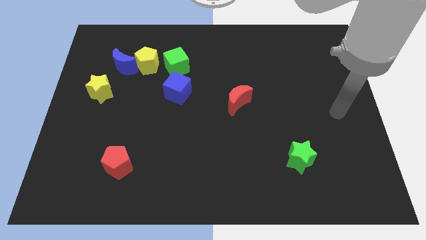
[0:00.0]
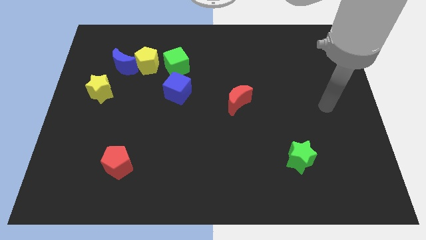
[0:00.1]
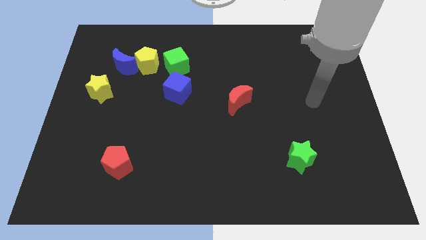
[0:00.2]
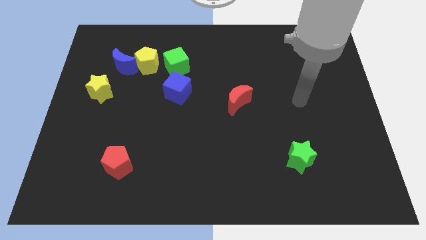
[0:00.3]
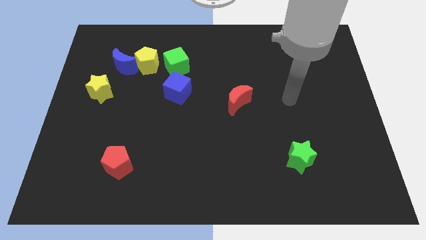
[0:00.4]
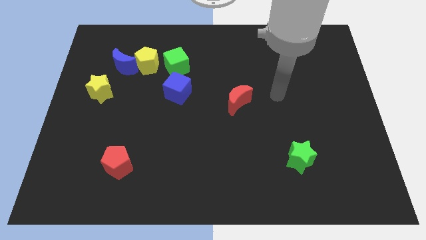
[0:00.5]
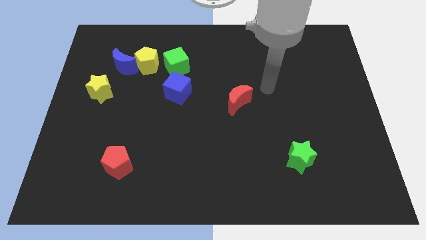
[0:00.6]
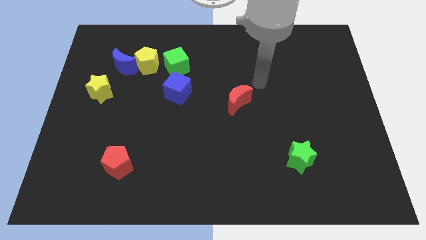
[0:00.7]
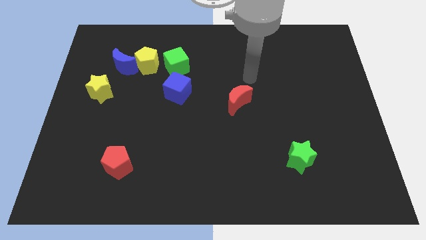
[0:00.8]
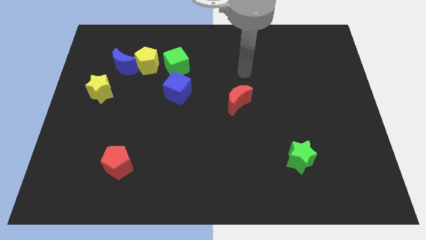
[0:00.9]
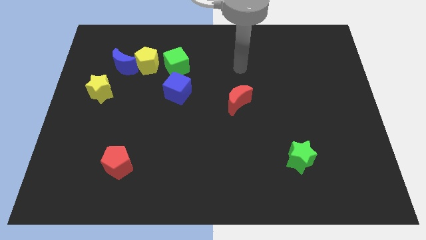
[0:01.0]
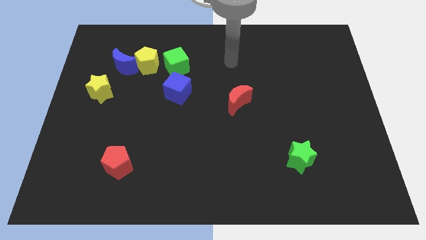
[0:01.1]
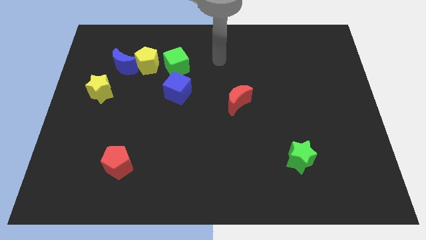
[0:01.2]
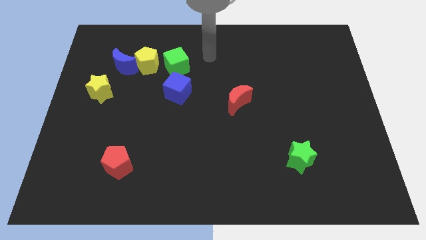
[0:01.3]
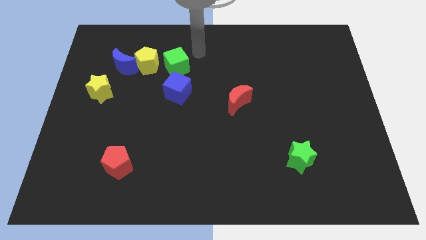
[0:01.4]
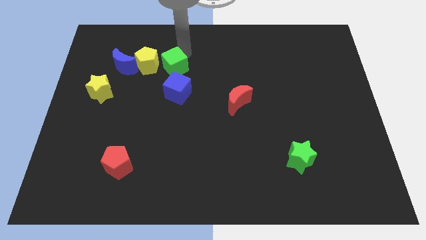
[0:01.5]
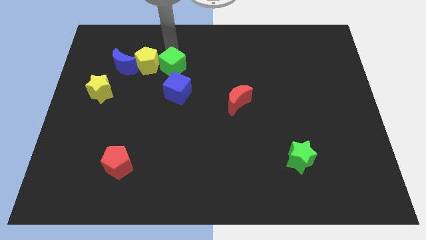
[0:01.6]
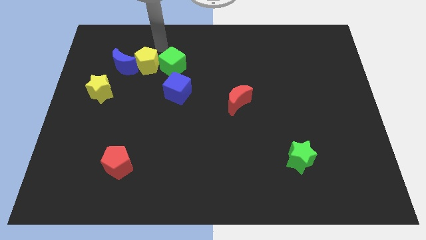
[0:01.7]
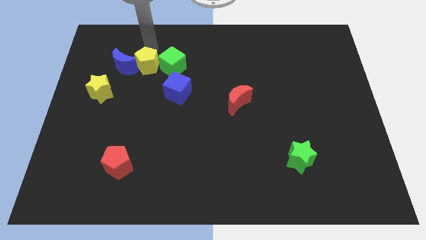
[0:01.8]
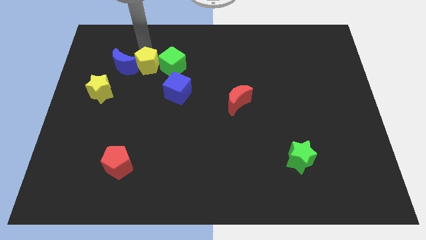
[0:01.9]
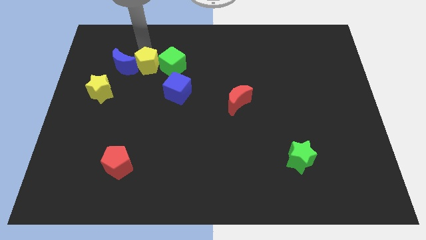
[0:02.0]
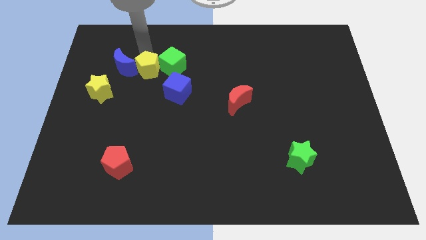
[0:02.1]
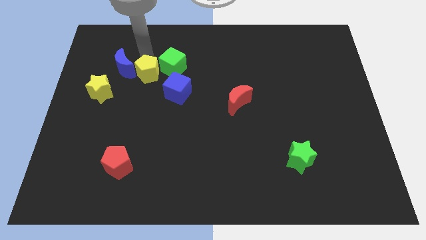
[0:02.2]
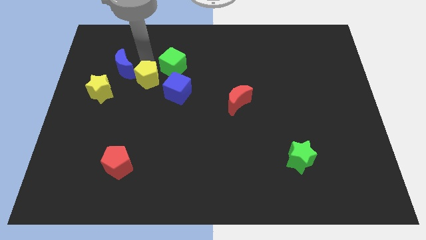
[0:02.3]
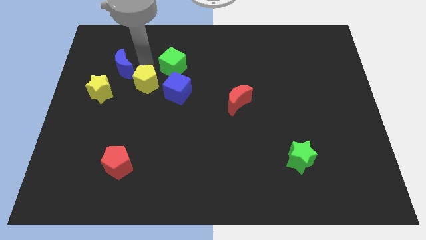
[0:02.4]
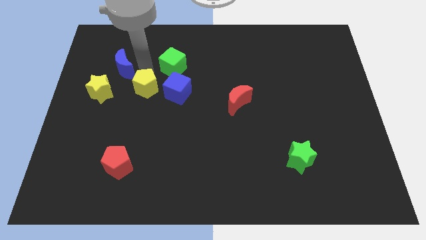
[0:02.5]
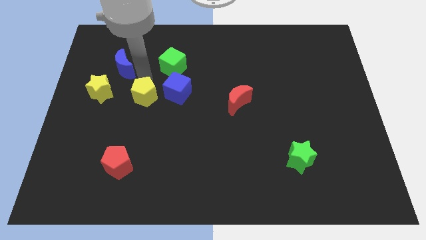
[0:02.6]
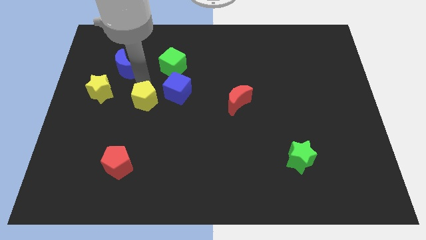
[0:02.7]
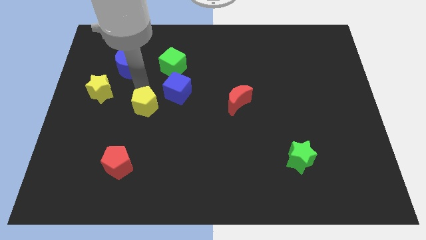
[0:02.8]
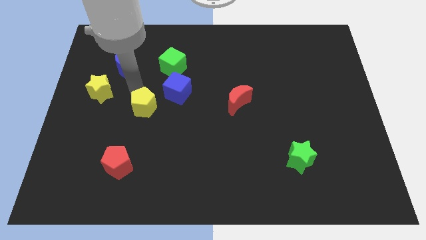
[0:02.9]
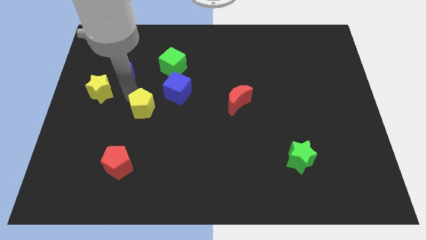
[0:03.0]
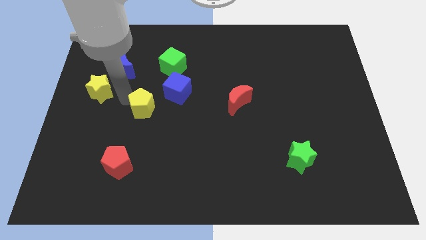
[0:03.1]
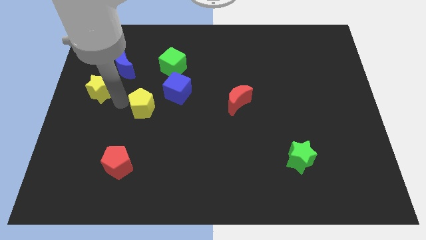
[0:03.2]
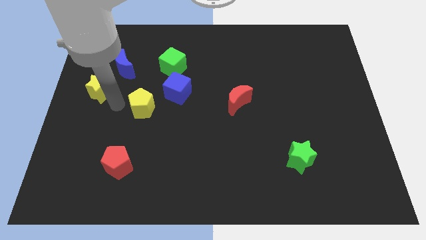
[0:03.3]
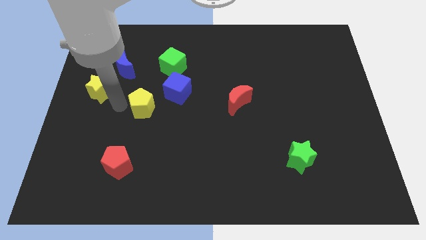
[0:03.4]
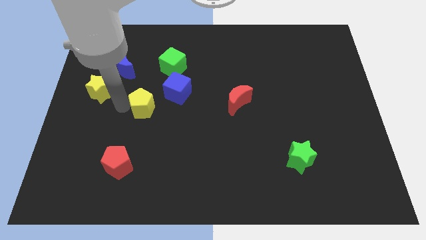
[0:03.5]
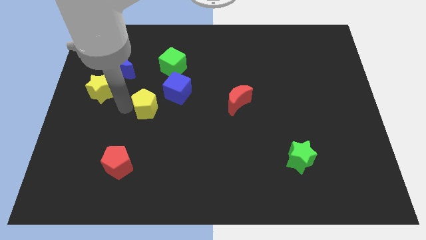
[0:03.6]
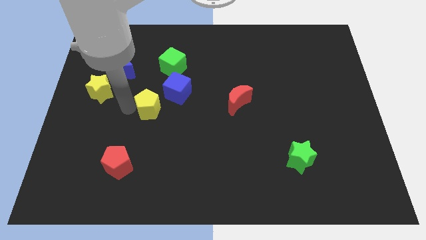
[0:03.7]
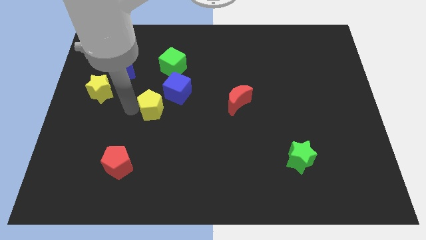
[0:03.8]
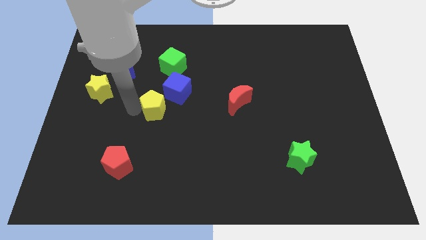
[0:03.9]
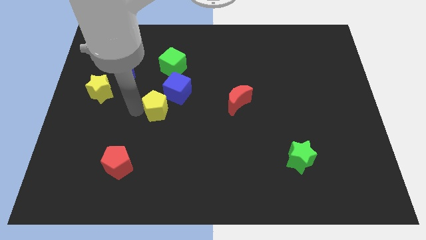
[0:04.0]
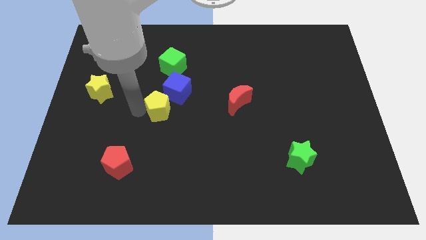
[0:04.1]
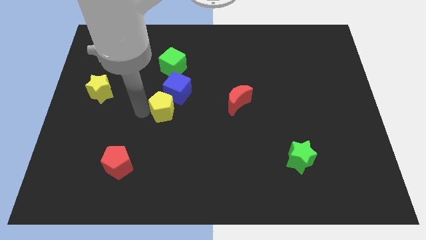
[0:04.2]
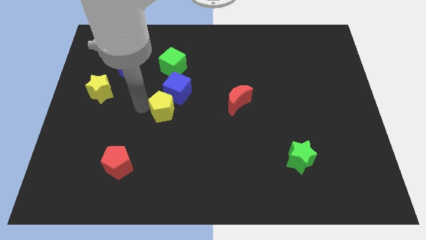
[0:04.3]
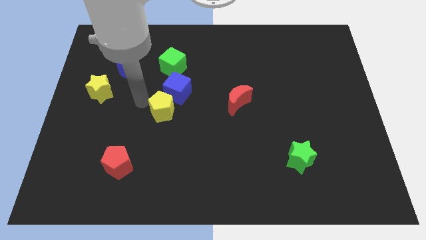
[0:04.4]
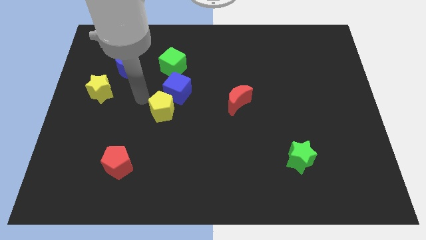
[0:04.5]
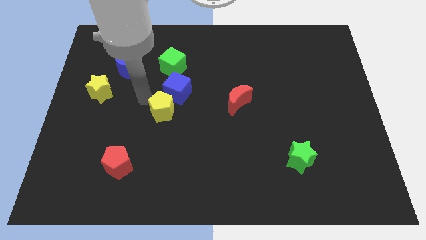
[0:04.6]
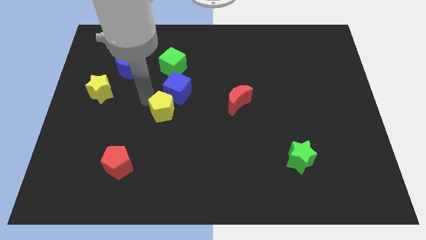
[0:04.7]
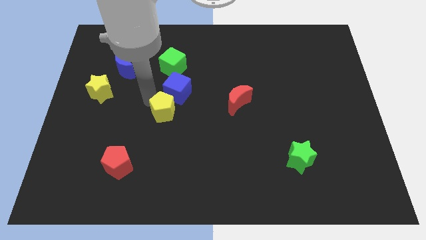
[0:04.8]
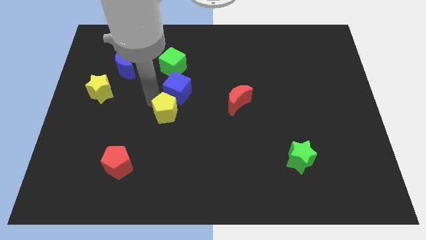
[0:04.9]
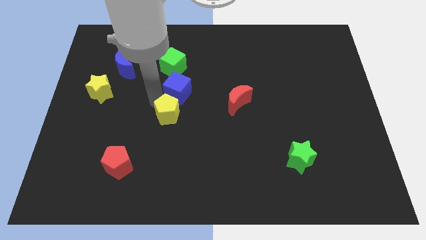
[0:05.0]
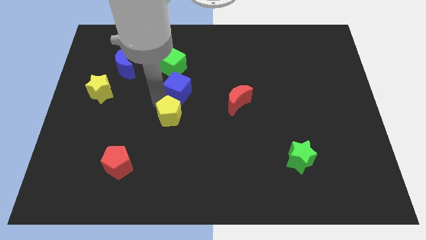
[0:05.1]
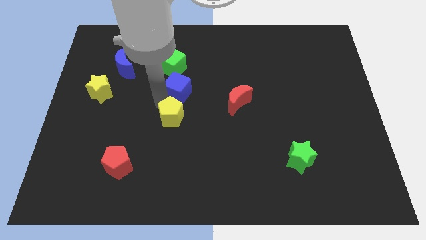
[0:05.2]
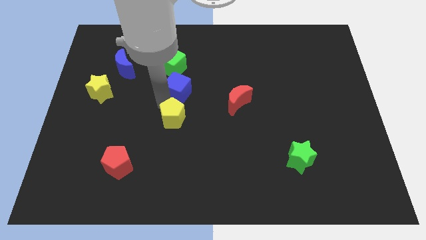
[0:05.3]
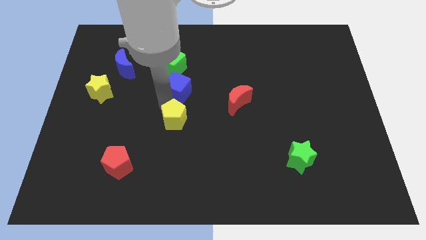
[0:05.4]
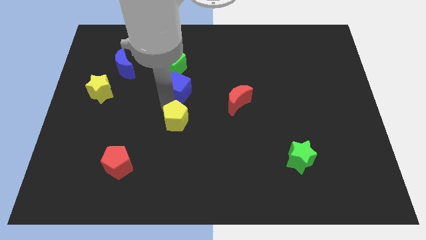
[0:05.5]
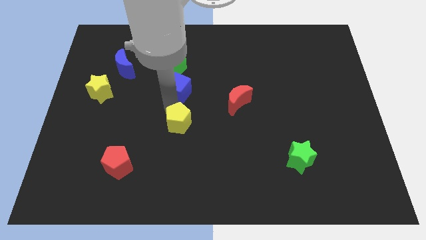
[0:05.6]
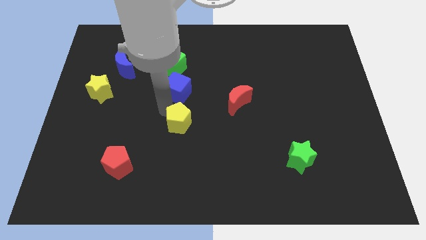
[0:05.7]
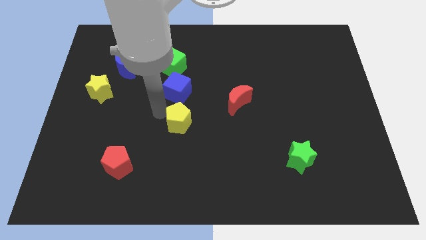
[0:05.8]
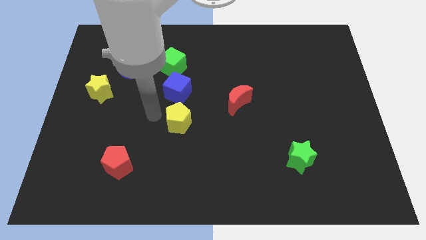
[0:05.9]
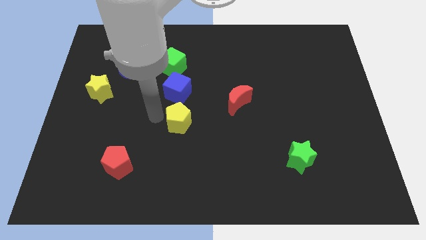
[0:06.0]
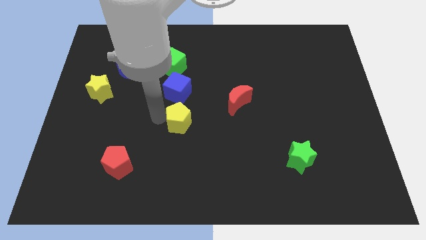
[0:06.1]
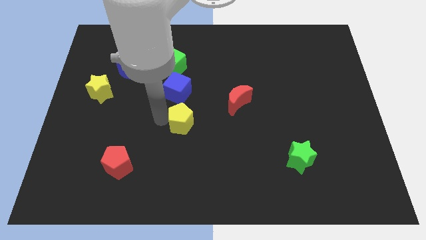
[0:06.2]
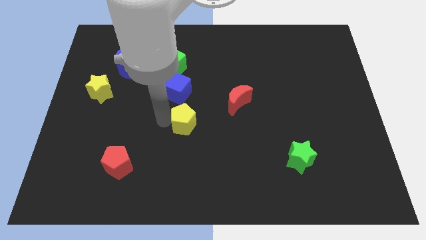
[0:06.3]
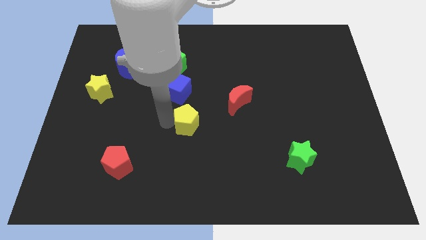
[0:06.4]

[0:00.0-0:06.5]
push the yellow pentagon downwards and right

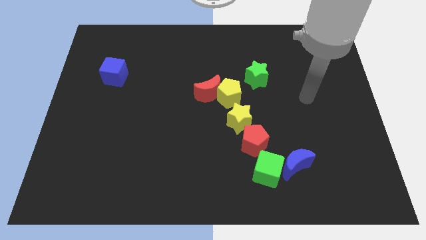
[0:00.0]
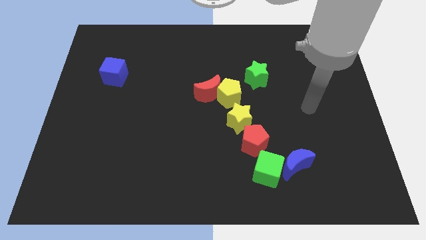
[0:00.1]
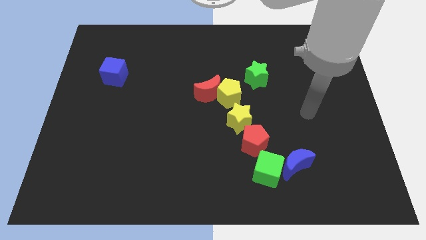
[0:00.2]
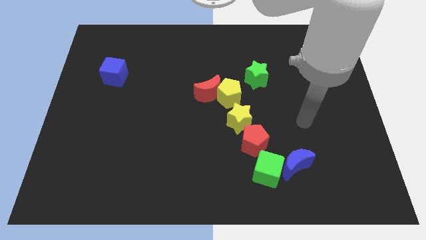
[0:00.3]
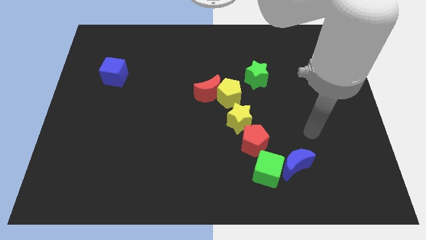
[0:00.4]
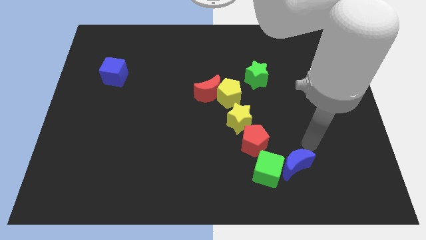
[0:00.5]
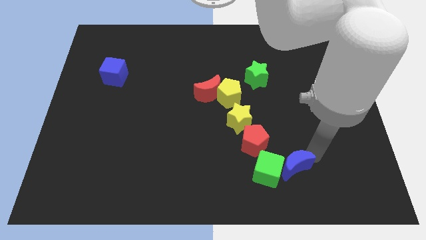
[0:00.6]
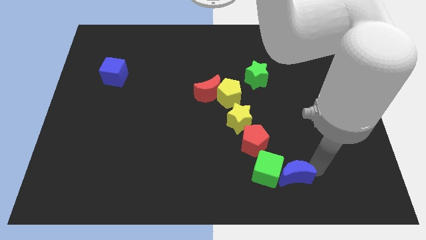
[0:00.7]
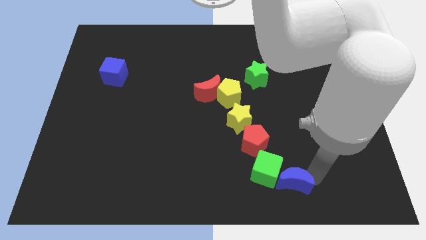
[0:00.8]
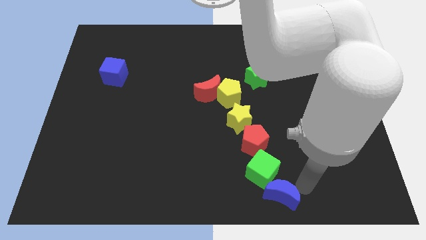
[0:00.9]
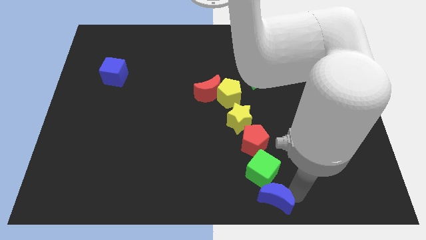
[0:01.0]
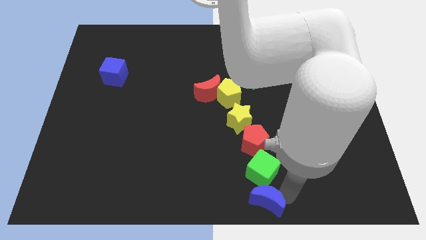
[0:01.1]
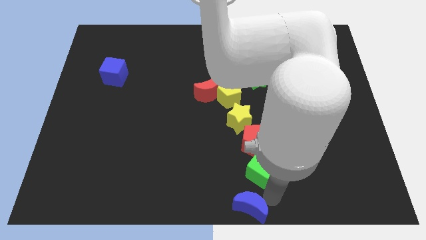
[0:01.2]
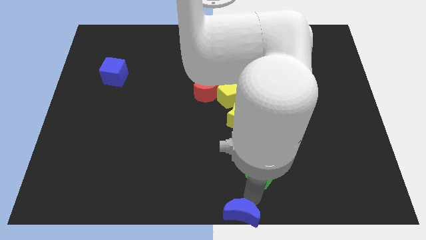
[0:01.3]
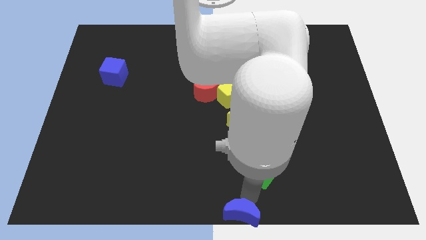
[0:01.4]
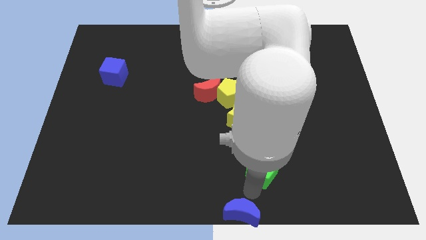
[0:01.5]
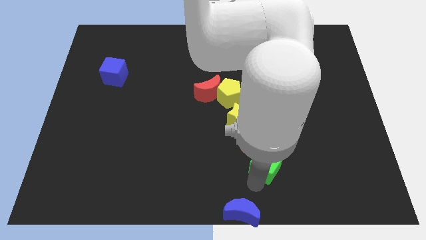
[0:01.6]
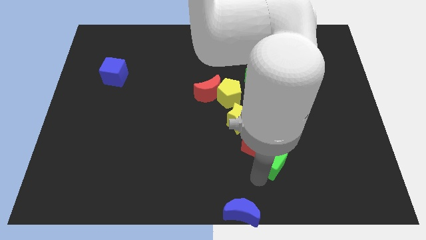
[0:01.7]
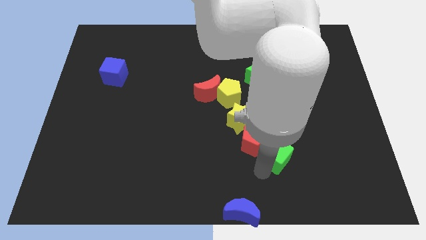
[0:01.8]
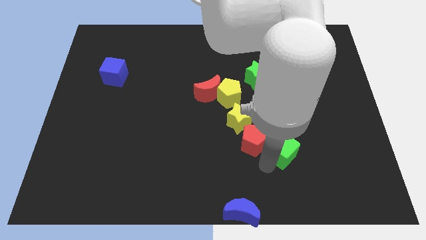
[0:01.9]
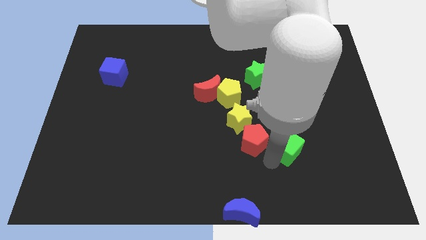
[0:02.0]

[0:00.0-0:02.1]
slide the green cube a little bit upwards and then to the right
